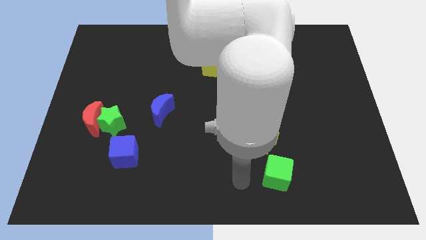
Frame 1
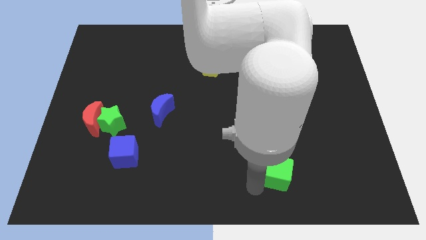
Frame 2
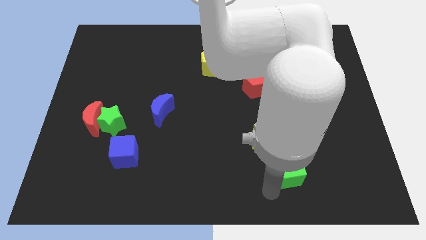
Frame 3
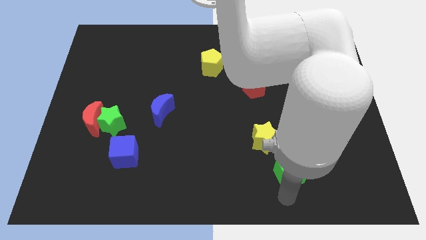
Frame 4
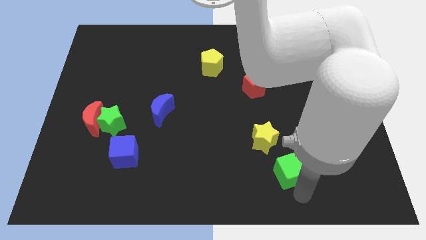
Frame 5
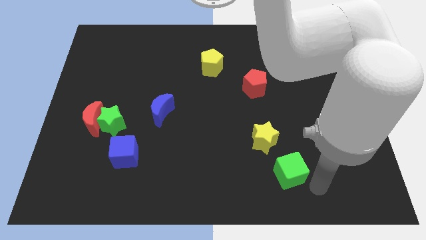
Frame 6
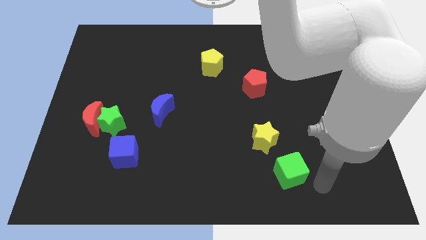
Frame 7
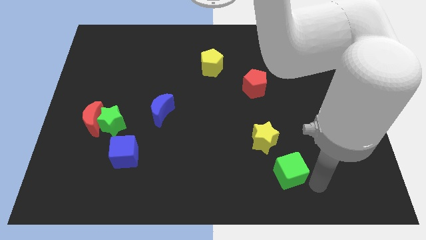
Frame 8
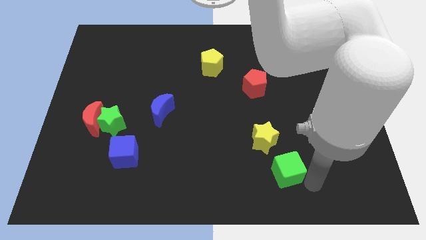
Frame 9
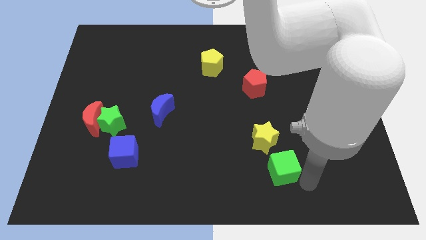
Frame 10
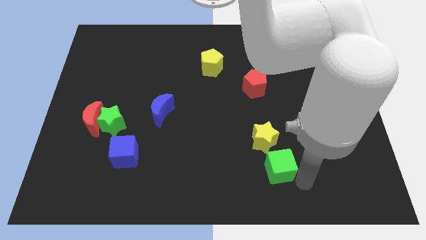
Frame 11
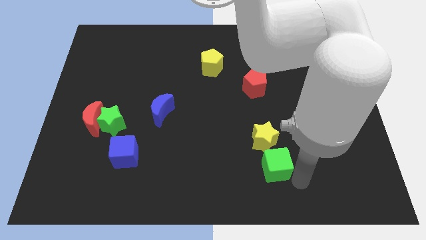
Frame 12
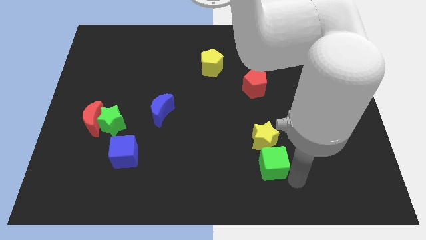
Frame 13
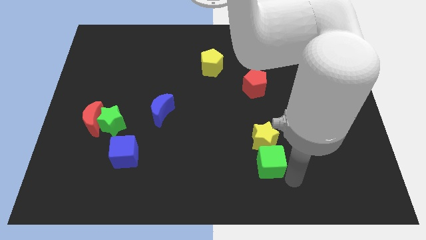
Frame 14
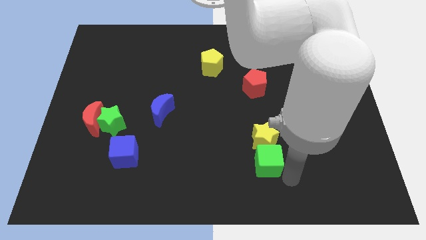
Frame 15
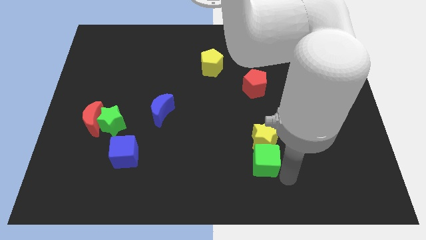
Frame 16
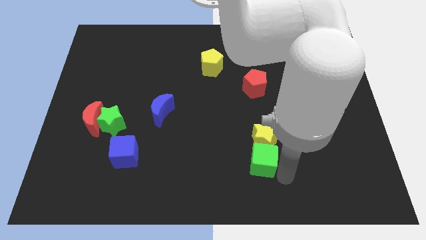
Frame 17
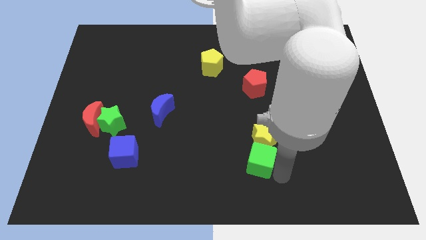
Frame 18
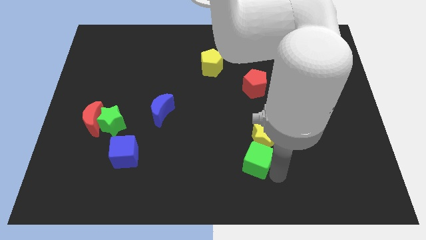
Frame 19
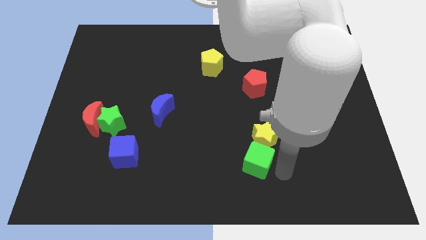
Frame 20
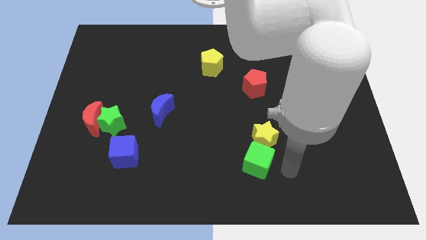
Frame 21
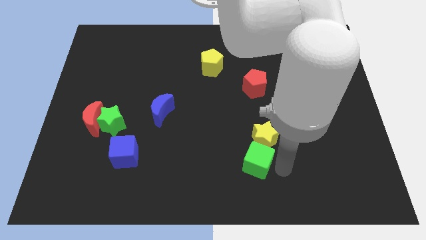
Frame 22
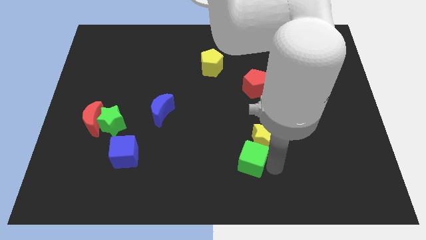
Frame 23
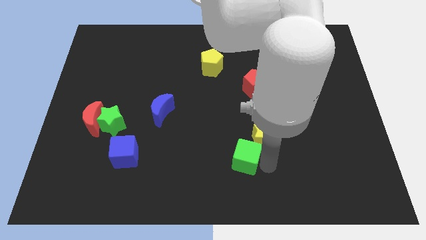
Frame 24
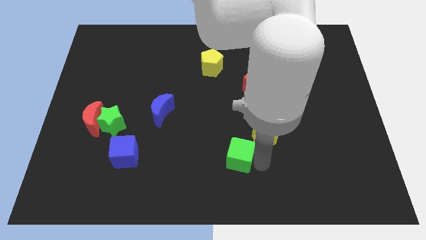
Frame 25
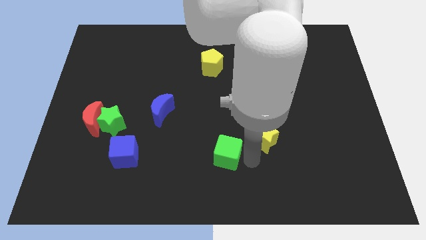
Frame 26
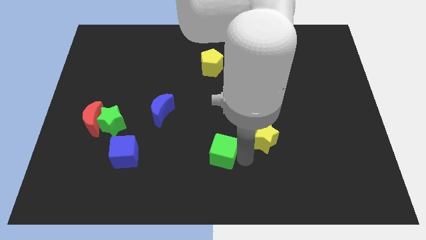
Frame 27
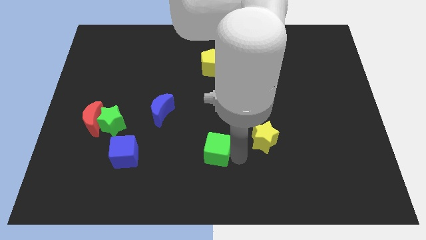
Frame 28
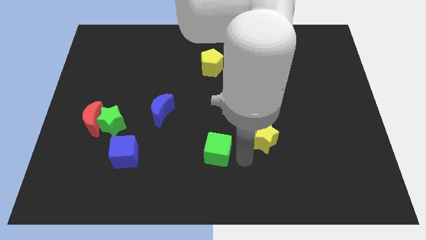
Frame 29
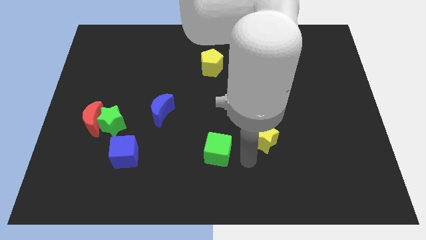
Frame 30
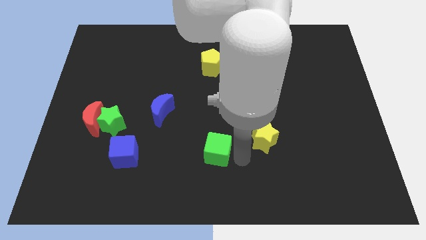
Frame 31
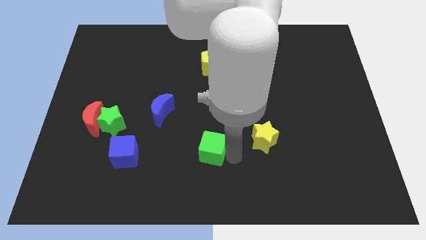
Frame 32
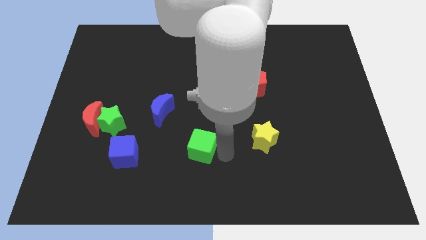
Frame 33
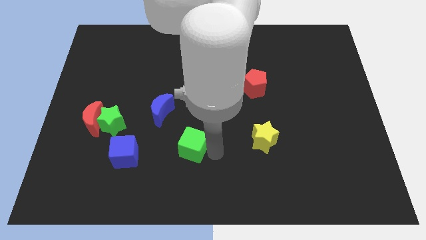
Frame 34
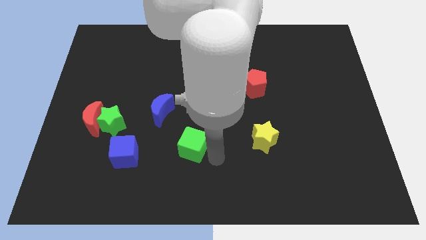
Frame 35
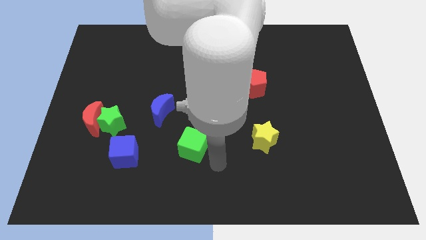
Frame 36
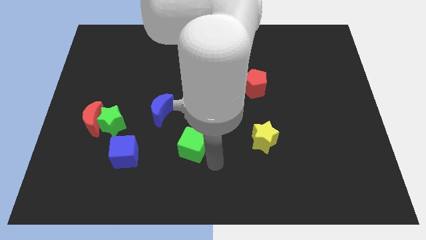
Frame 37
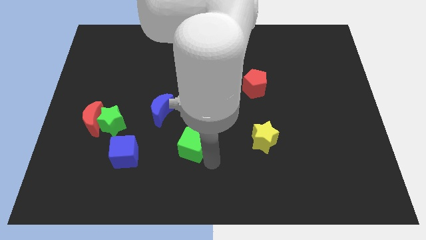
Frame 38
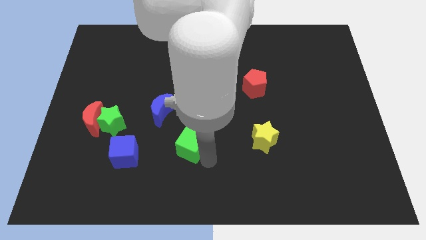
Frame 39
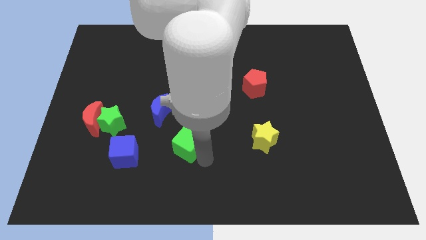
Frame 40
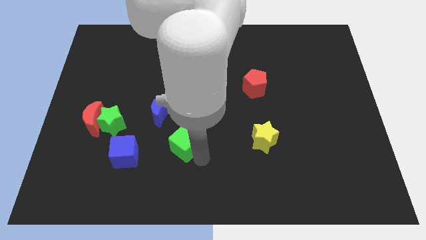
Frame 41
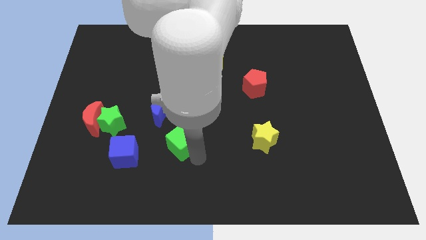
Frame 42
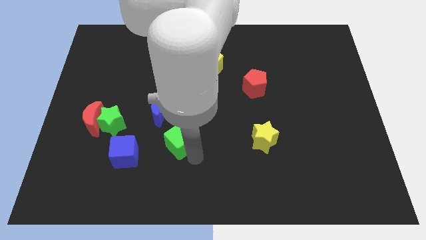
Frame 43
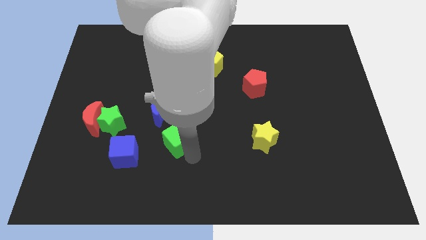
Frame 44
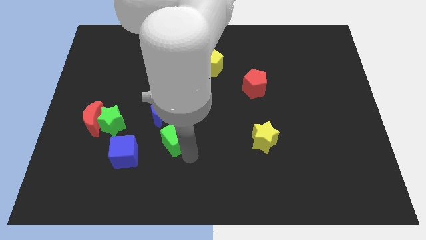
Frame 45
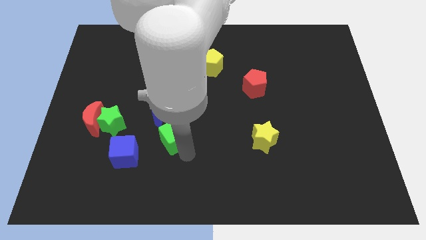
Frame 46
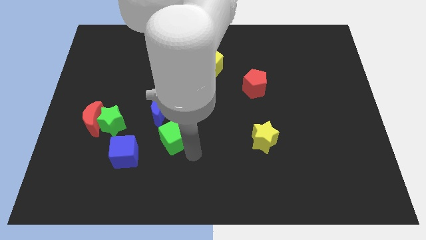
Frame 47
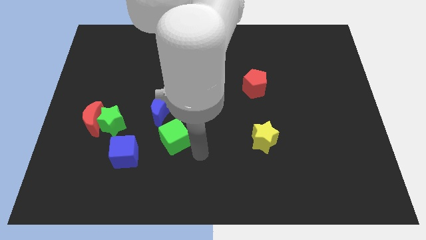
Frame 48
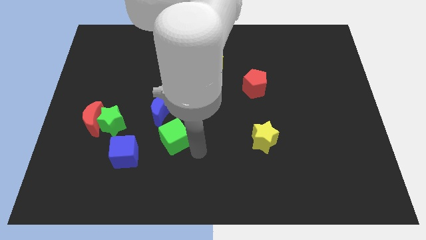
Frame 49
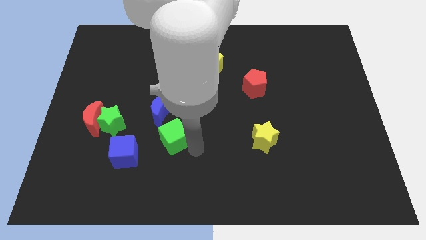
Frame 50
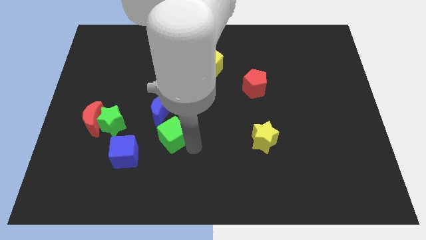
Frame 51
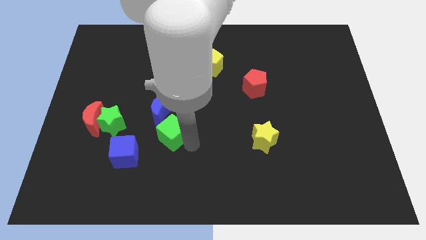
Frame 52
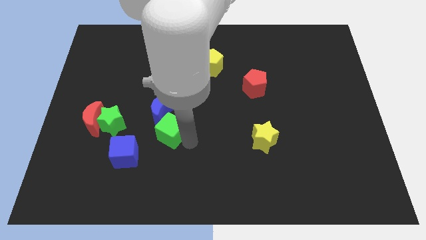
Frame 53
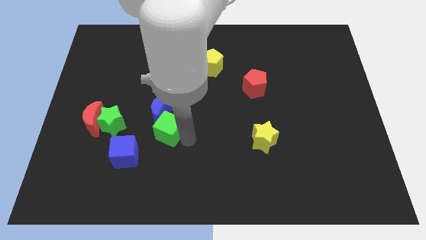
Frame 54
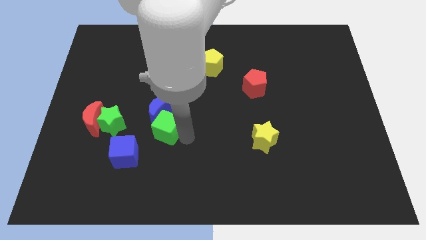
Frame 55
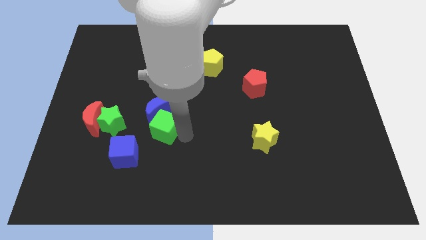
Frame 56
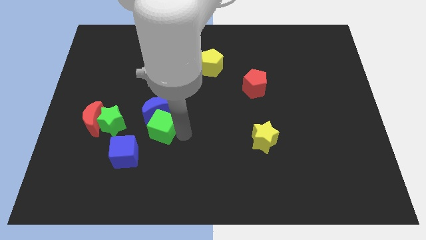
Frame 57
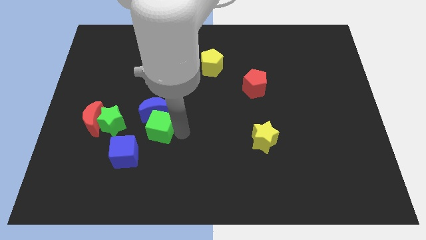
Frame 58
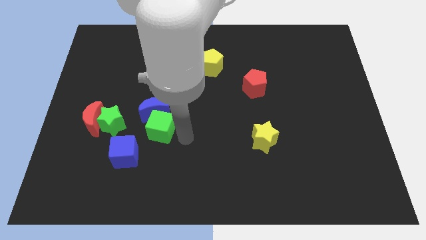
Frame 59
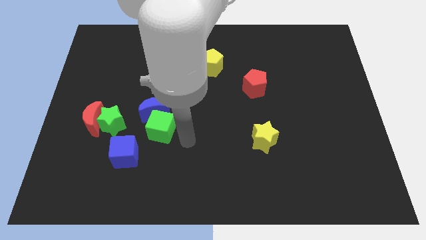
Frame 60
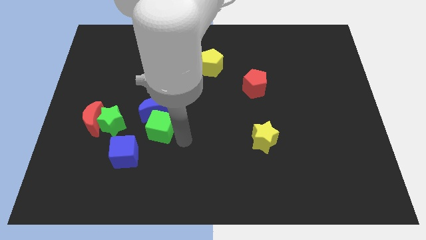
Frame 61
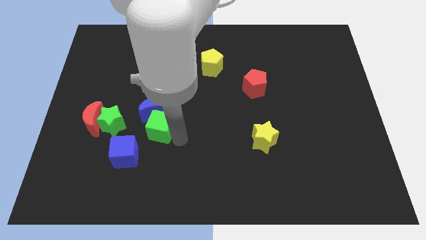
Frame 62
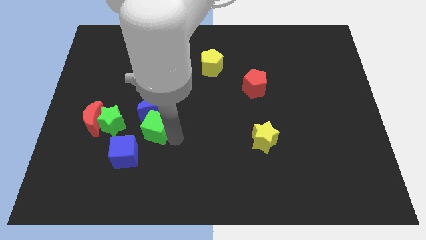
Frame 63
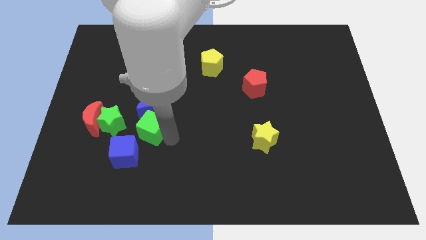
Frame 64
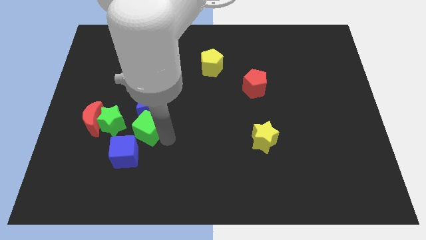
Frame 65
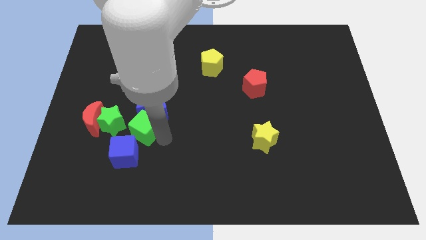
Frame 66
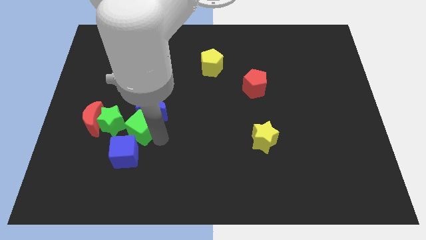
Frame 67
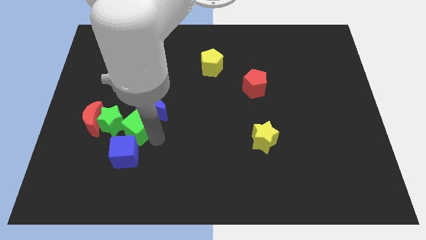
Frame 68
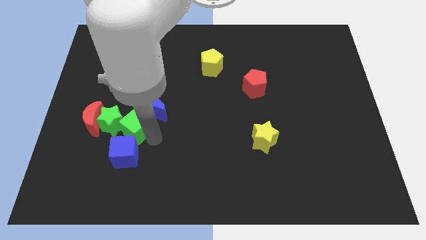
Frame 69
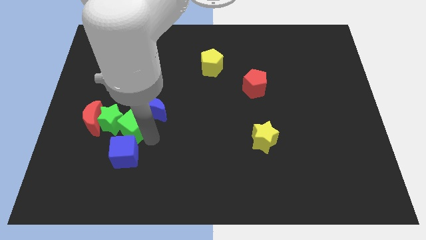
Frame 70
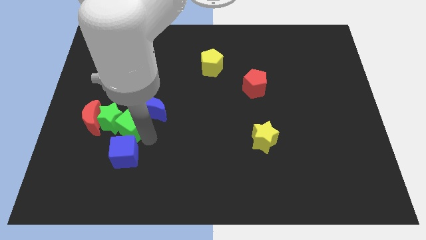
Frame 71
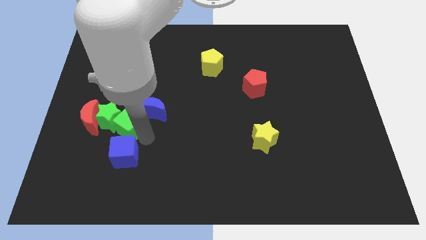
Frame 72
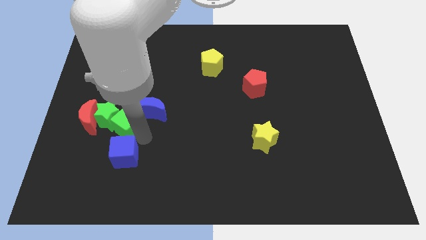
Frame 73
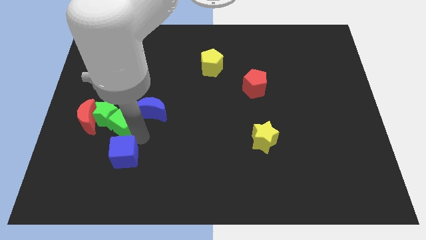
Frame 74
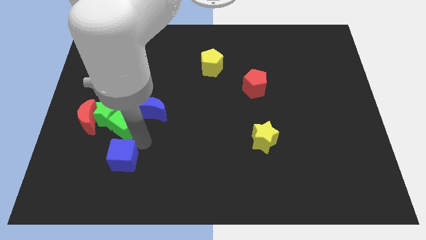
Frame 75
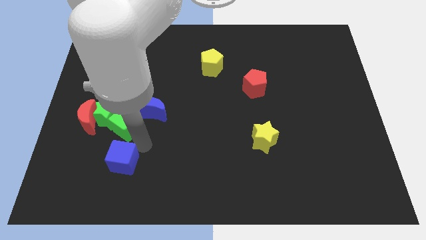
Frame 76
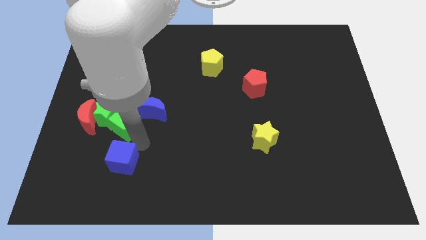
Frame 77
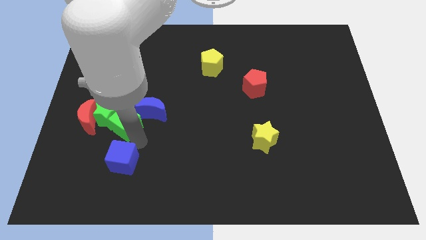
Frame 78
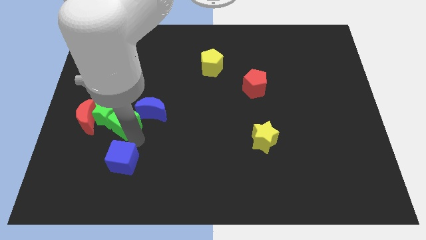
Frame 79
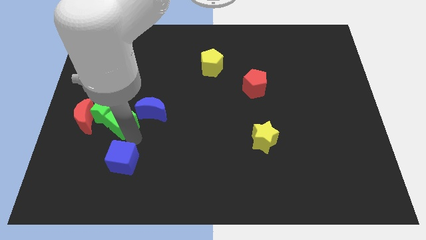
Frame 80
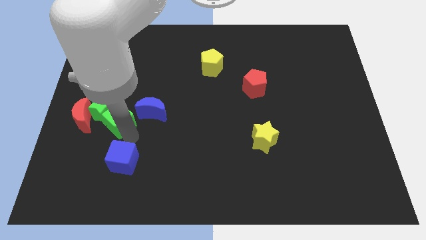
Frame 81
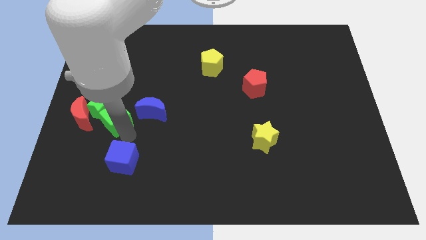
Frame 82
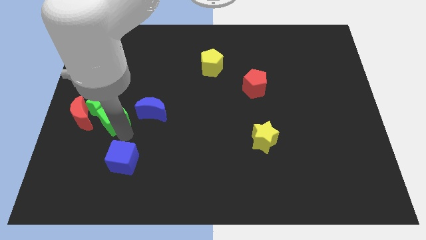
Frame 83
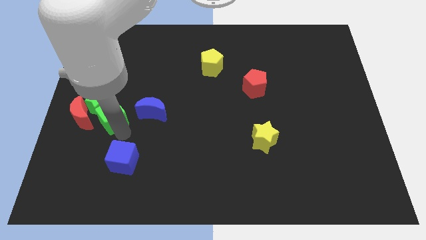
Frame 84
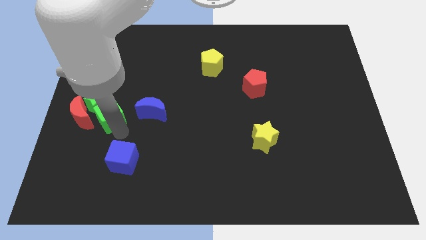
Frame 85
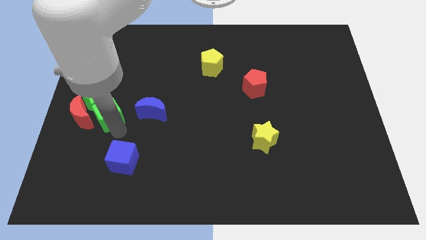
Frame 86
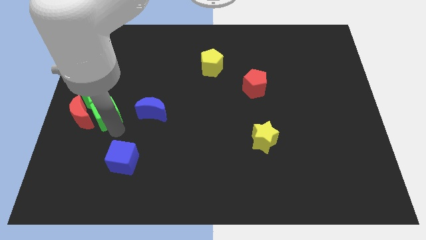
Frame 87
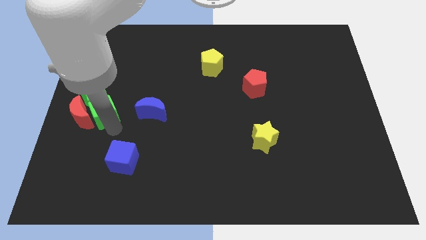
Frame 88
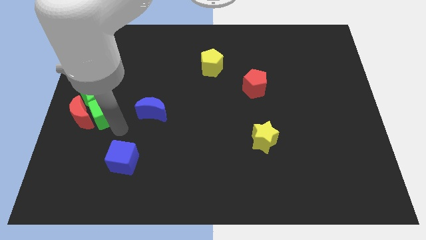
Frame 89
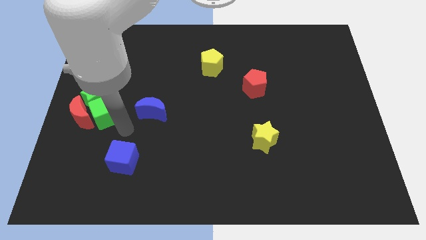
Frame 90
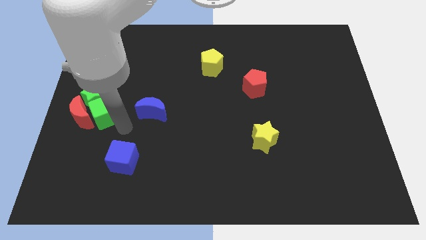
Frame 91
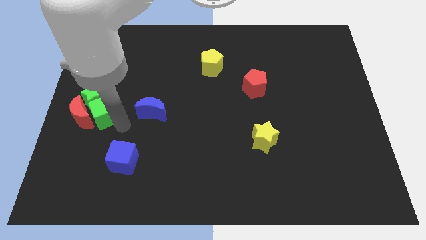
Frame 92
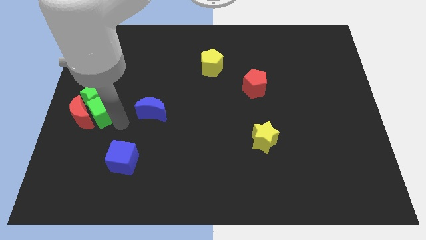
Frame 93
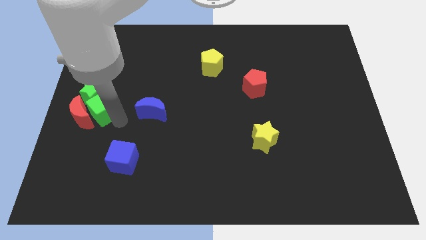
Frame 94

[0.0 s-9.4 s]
slide the green cube to the left side
